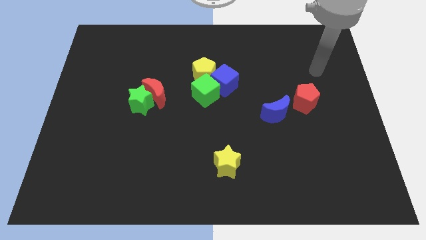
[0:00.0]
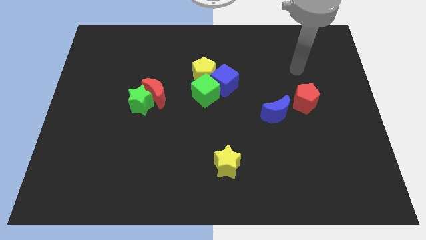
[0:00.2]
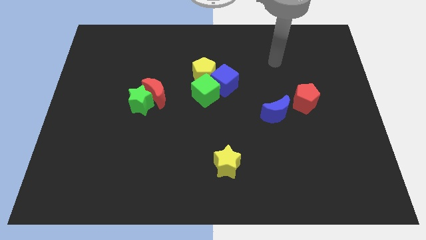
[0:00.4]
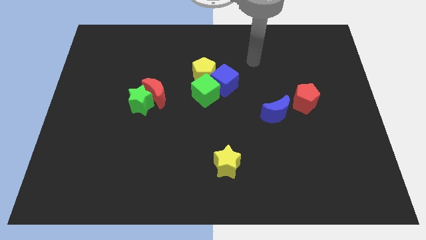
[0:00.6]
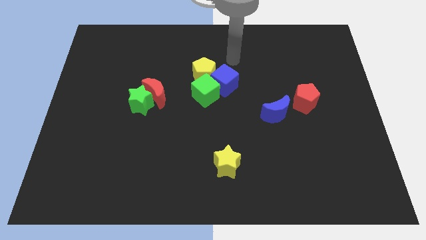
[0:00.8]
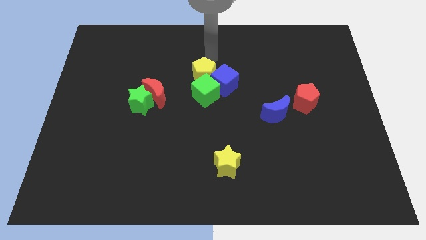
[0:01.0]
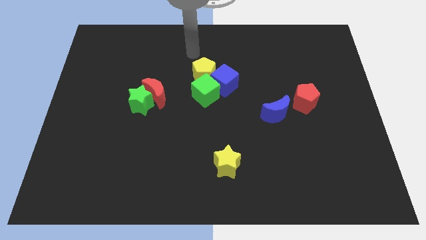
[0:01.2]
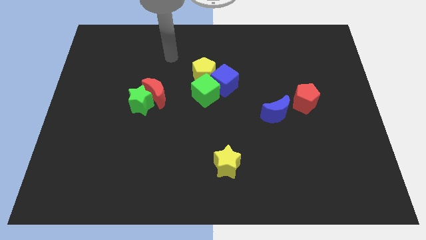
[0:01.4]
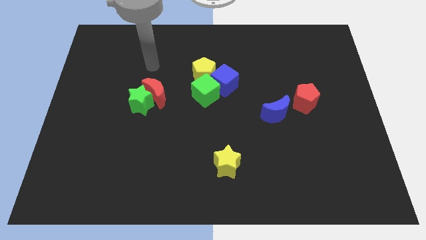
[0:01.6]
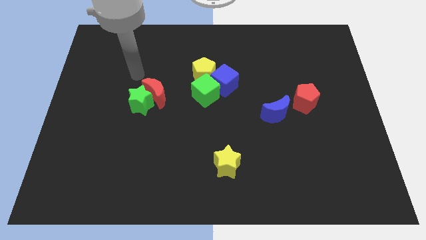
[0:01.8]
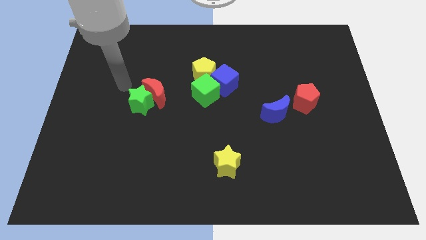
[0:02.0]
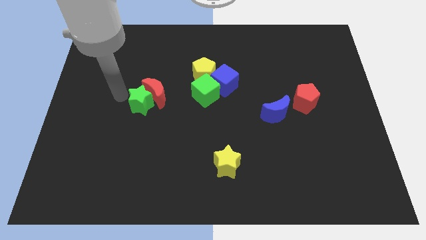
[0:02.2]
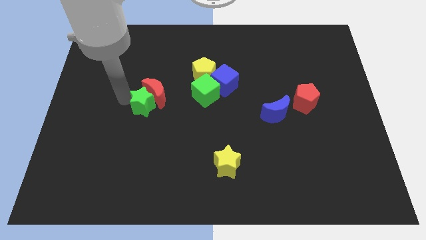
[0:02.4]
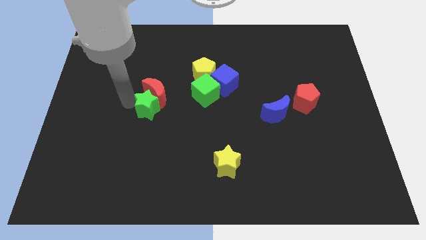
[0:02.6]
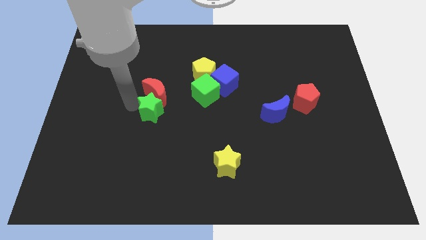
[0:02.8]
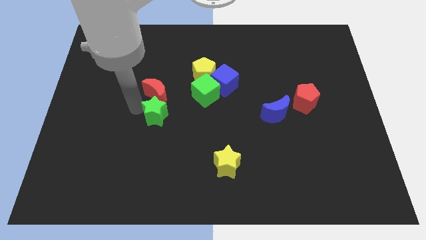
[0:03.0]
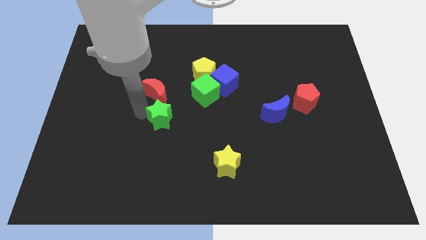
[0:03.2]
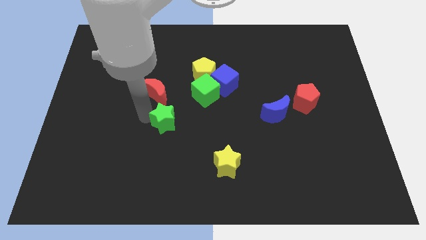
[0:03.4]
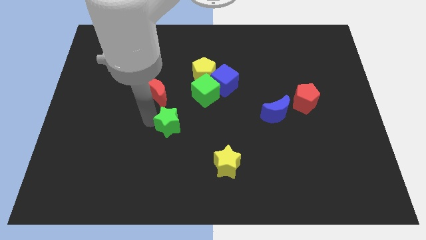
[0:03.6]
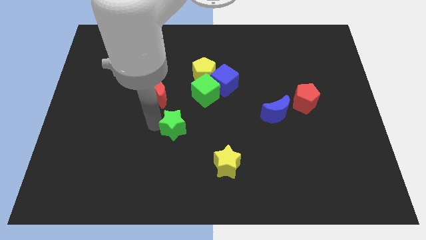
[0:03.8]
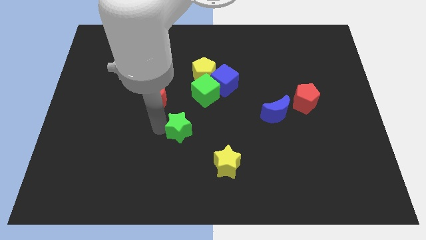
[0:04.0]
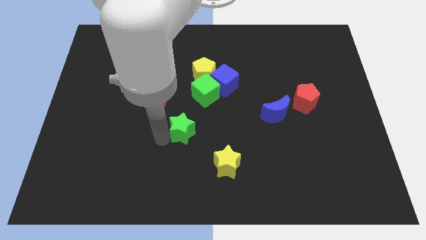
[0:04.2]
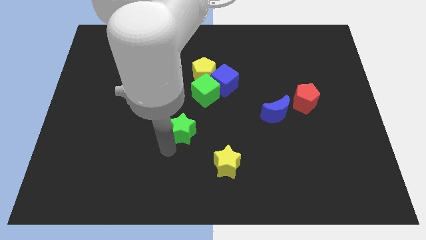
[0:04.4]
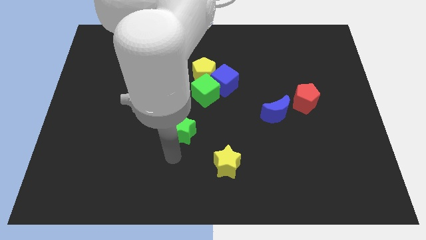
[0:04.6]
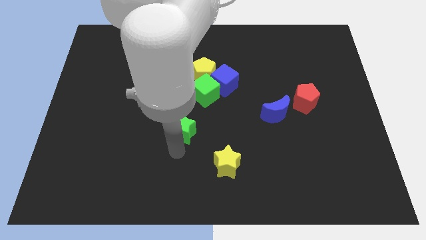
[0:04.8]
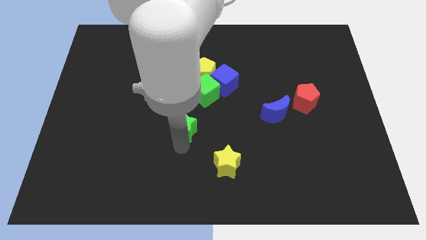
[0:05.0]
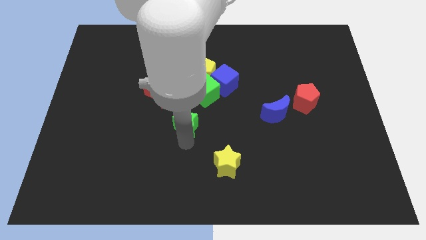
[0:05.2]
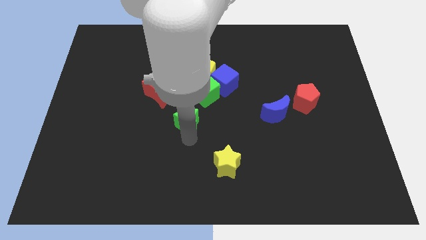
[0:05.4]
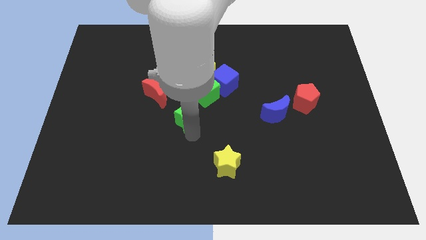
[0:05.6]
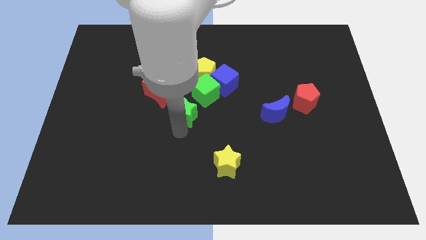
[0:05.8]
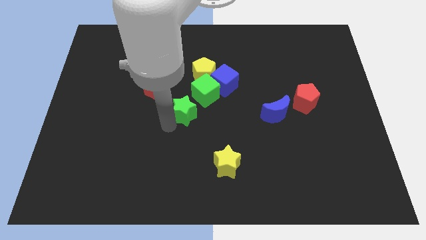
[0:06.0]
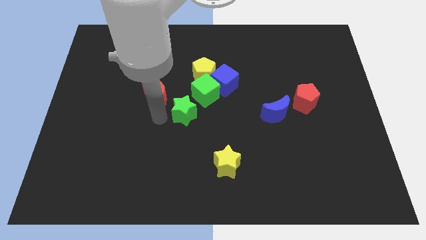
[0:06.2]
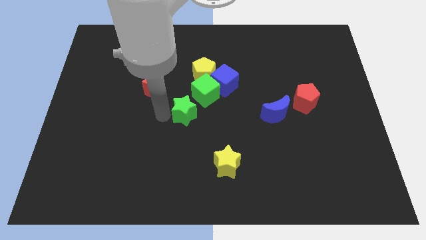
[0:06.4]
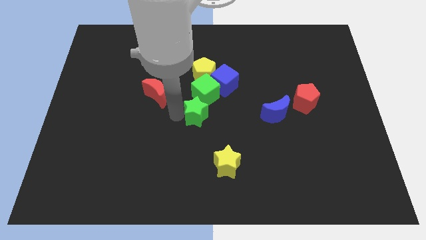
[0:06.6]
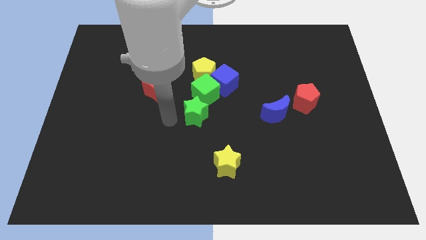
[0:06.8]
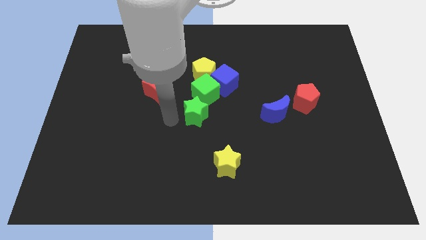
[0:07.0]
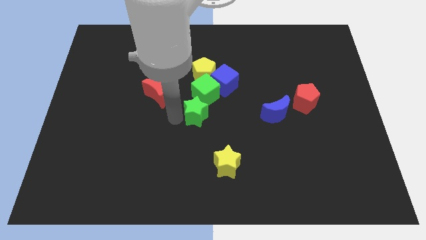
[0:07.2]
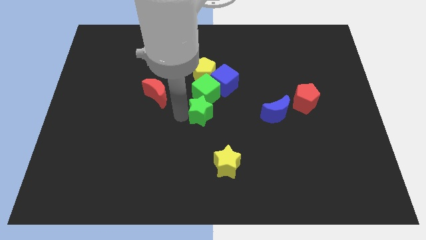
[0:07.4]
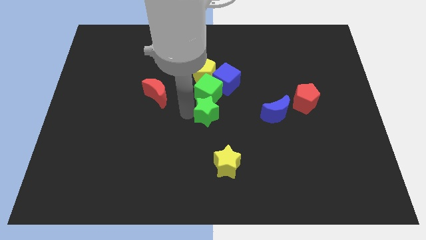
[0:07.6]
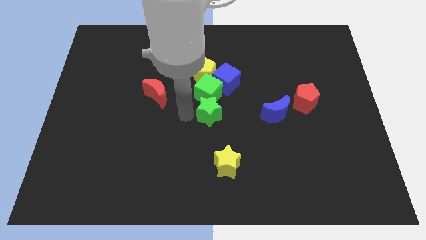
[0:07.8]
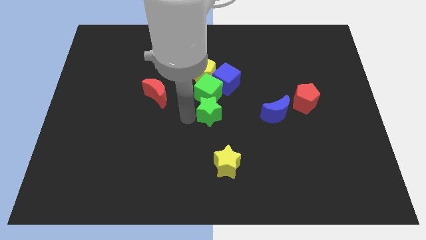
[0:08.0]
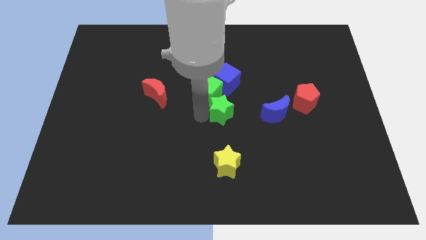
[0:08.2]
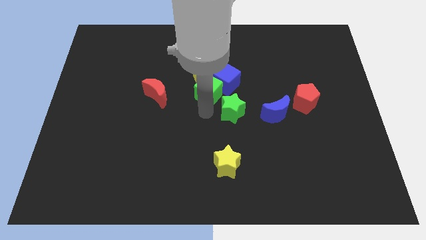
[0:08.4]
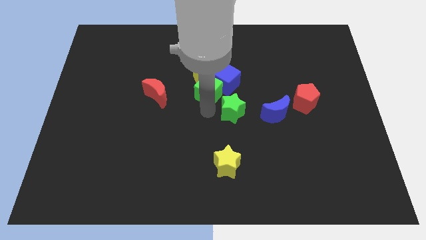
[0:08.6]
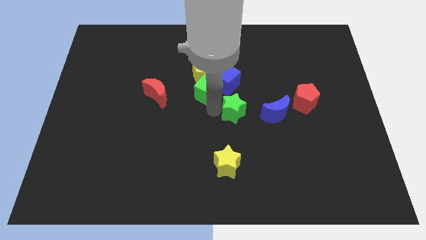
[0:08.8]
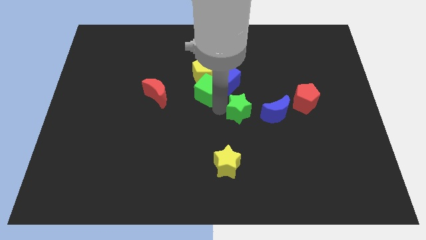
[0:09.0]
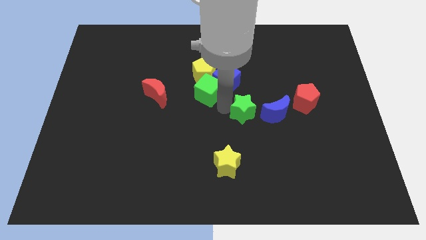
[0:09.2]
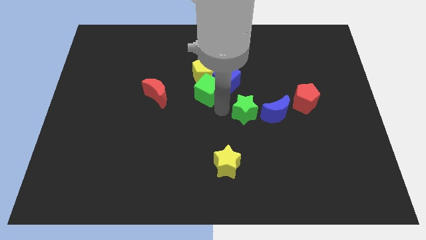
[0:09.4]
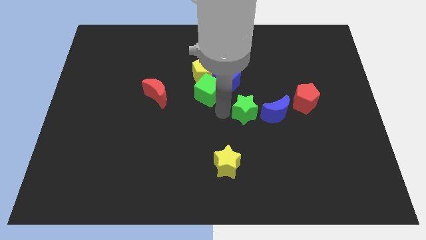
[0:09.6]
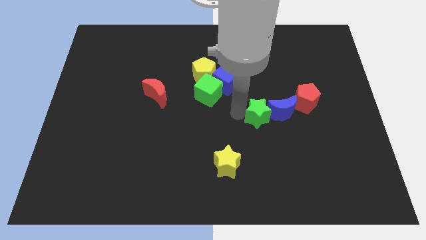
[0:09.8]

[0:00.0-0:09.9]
slide the green star close to the blue moon

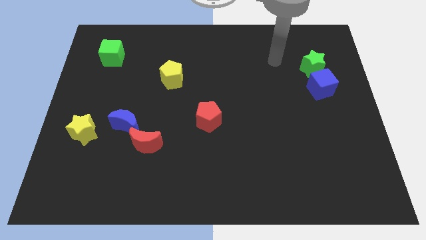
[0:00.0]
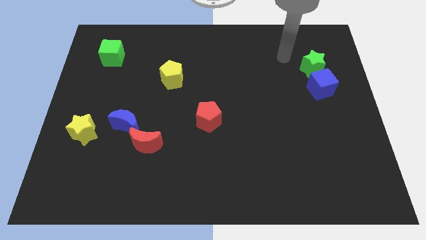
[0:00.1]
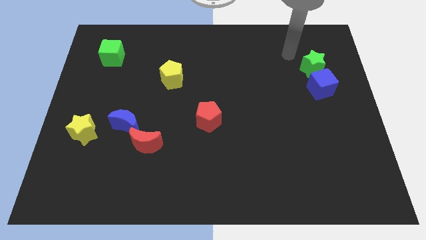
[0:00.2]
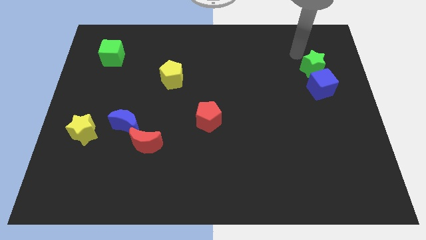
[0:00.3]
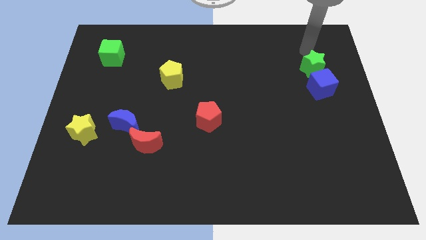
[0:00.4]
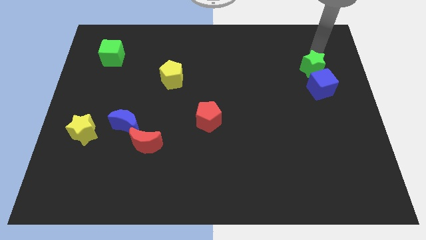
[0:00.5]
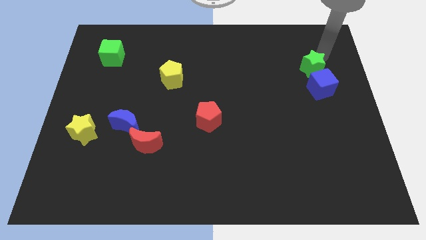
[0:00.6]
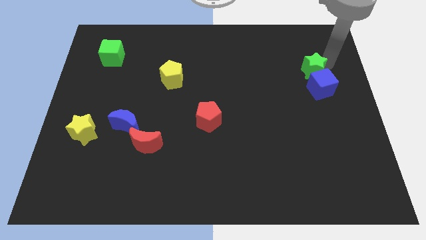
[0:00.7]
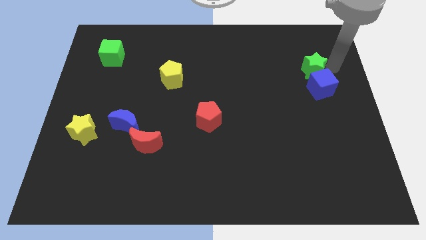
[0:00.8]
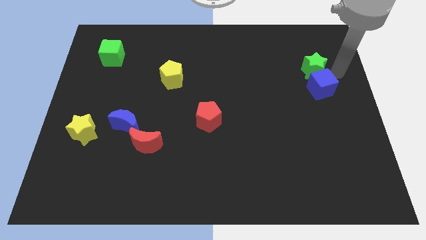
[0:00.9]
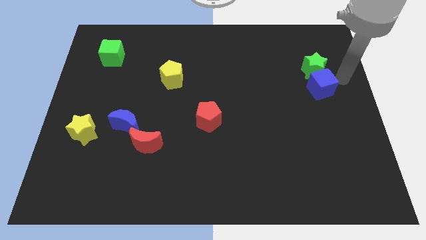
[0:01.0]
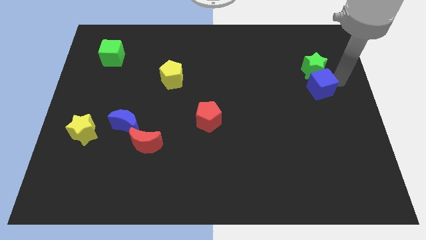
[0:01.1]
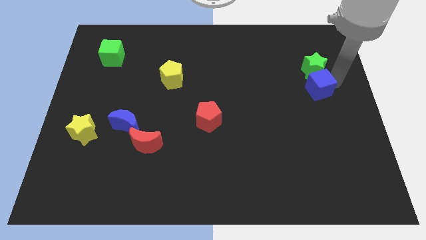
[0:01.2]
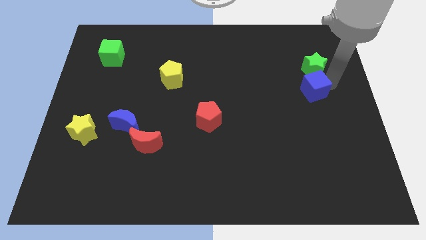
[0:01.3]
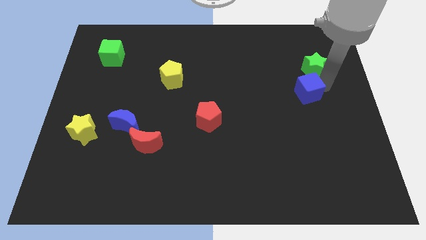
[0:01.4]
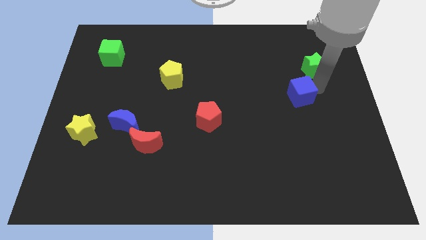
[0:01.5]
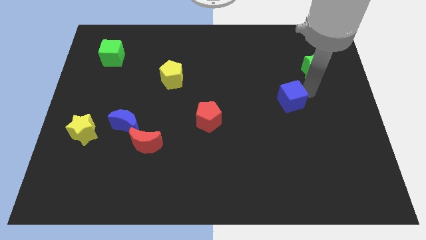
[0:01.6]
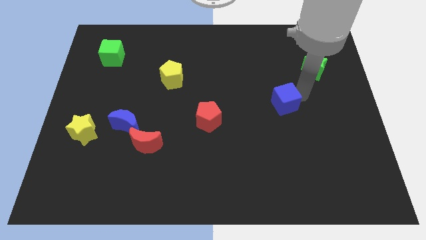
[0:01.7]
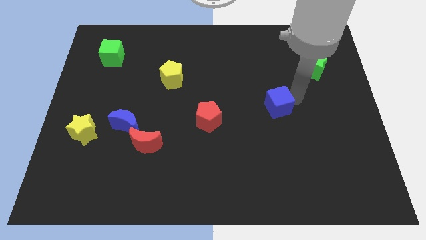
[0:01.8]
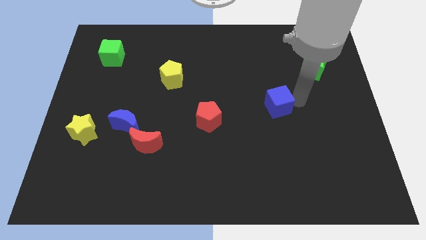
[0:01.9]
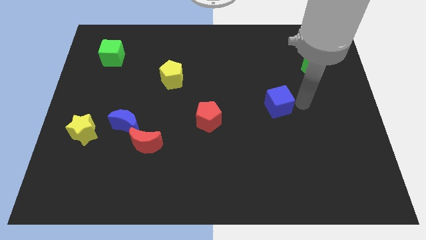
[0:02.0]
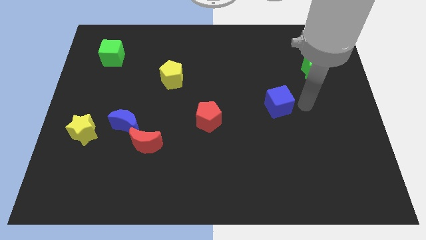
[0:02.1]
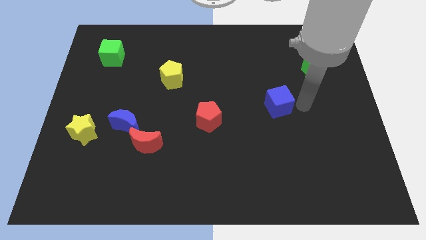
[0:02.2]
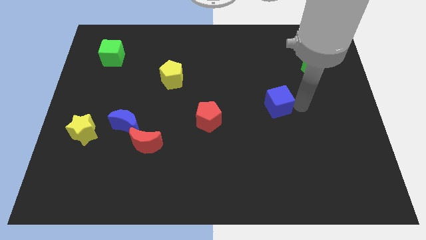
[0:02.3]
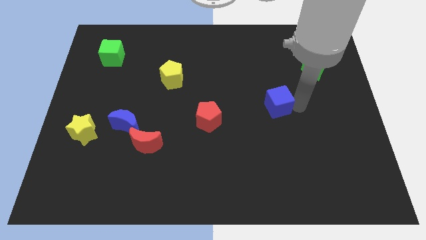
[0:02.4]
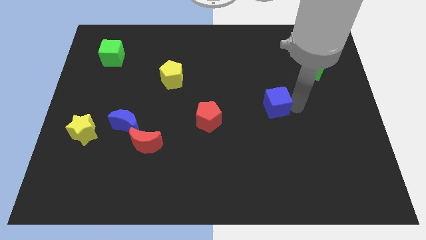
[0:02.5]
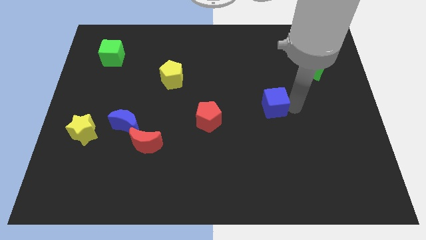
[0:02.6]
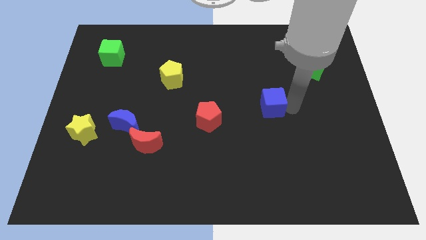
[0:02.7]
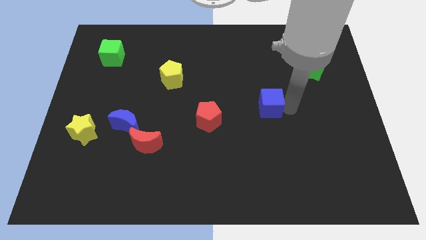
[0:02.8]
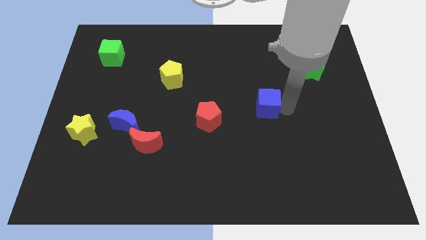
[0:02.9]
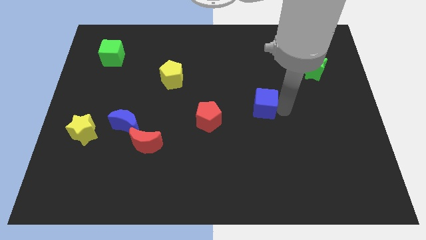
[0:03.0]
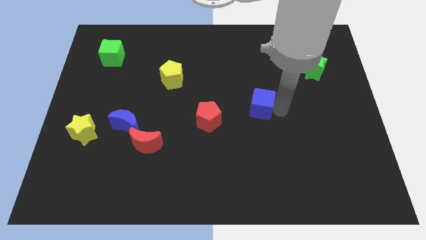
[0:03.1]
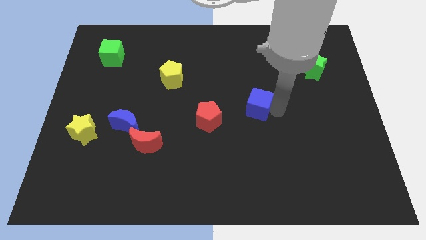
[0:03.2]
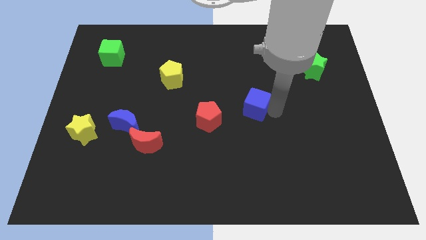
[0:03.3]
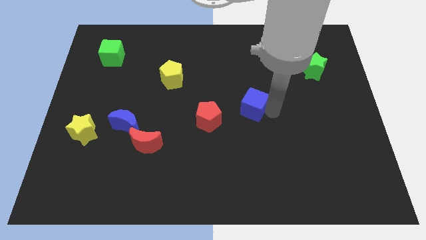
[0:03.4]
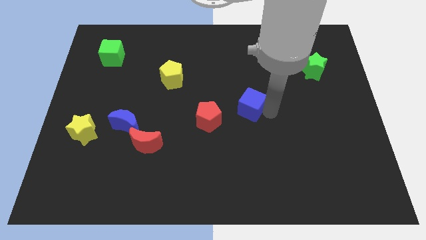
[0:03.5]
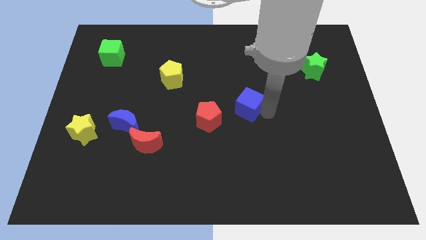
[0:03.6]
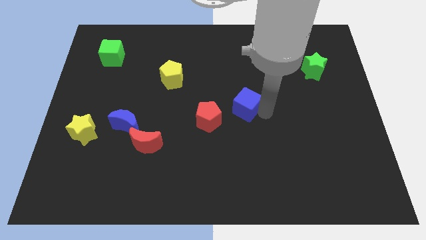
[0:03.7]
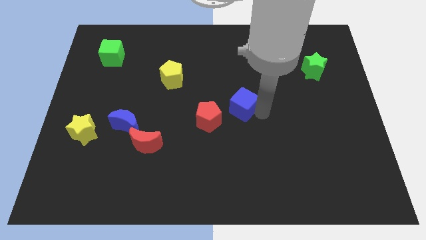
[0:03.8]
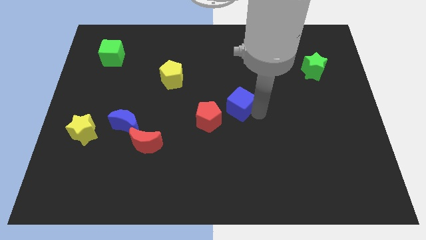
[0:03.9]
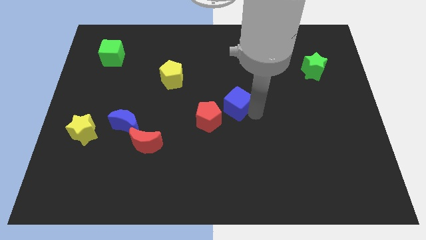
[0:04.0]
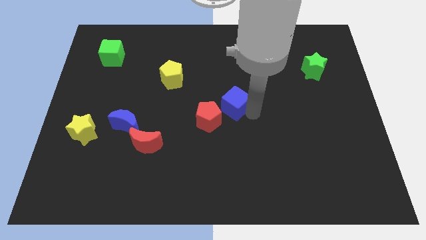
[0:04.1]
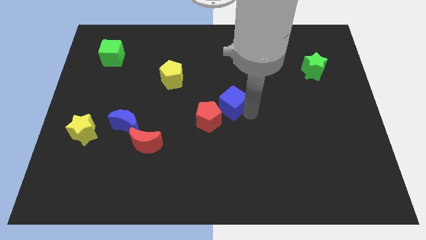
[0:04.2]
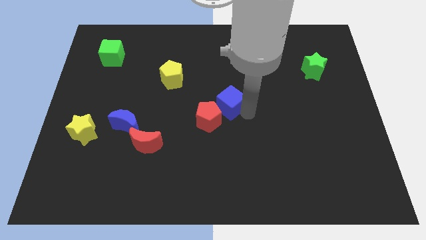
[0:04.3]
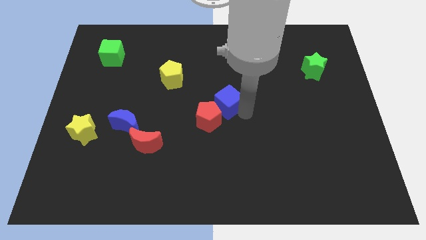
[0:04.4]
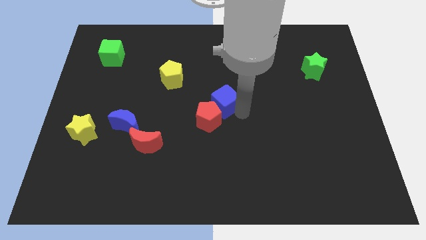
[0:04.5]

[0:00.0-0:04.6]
push the blue cube close to the red pentagon
